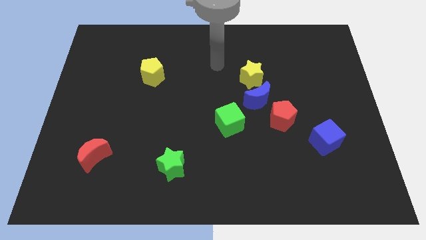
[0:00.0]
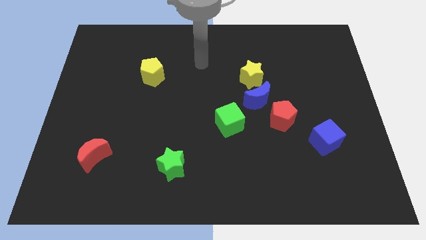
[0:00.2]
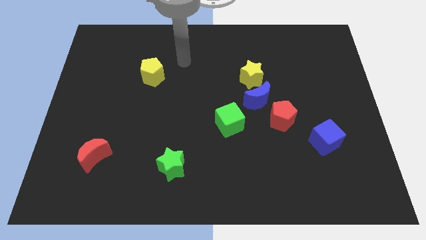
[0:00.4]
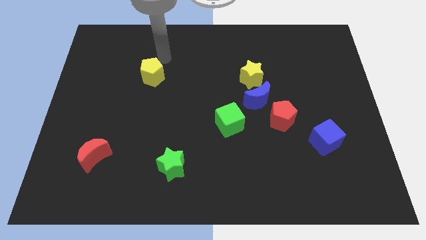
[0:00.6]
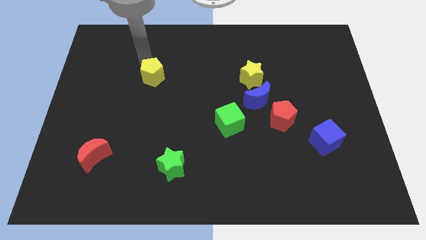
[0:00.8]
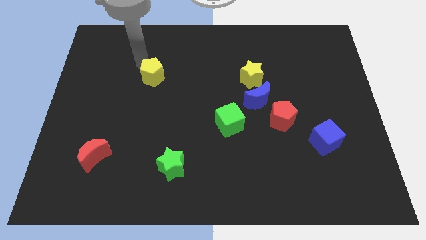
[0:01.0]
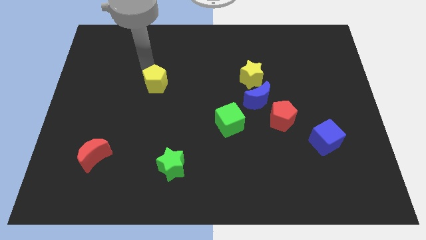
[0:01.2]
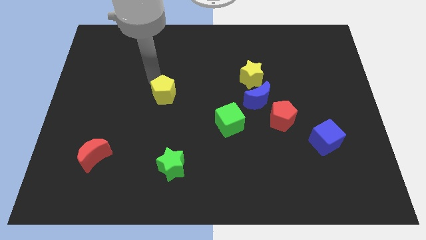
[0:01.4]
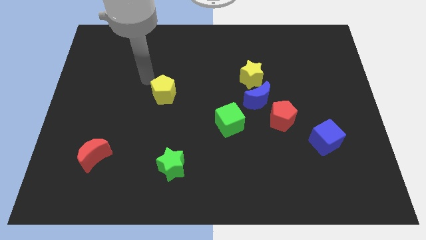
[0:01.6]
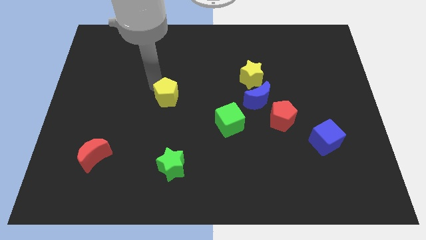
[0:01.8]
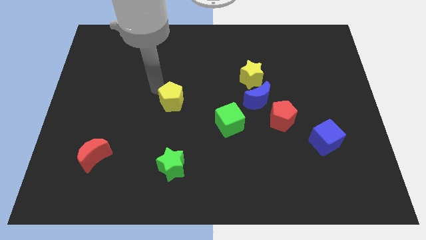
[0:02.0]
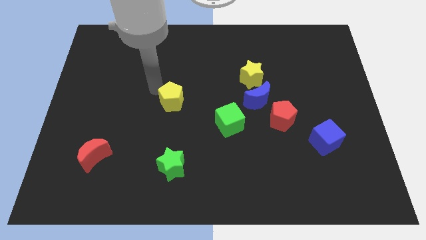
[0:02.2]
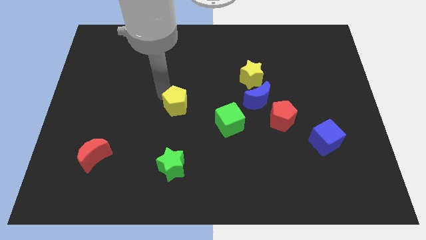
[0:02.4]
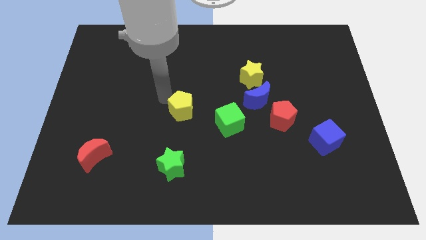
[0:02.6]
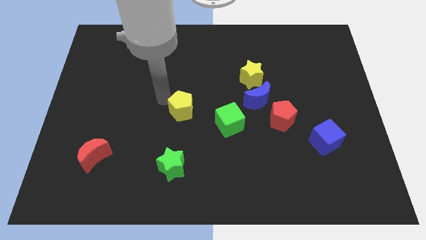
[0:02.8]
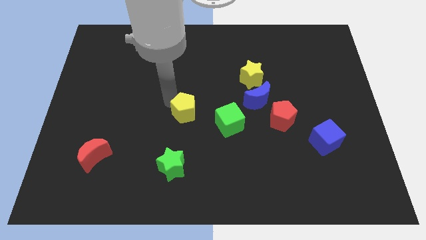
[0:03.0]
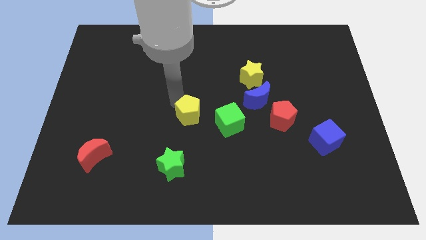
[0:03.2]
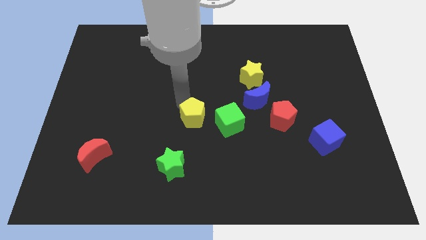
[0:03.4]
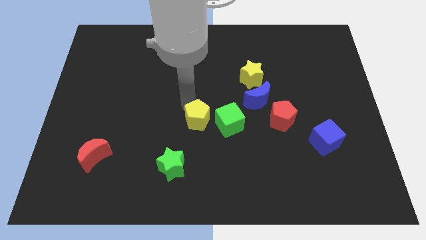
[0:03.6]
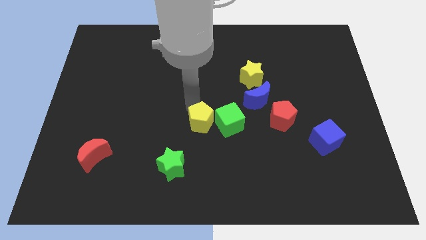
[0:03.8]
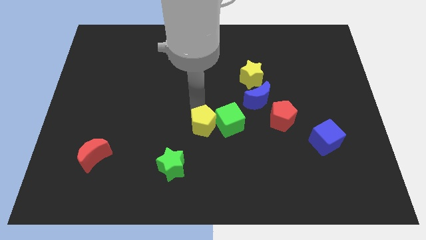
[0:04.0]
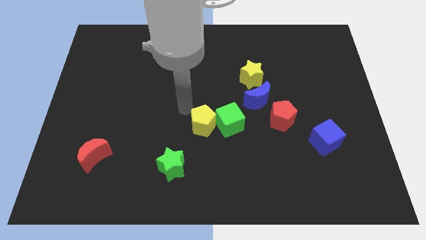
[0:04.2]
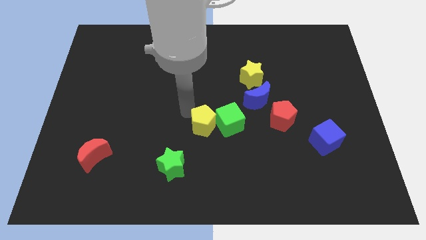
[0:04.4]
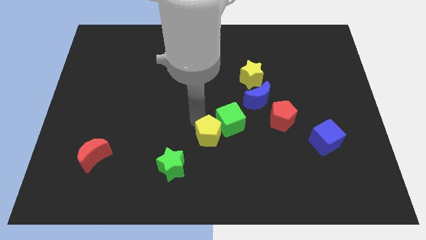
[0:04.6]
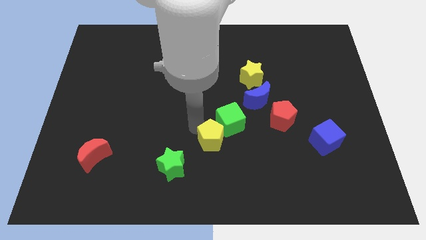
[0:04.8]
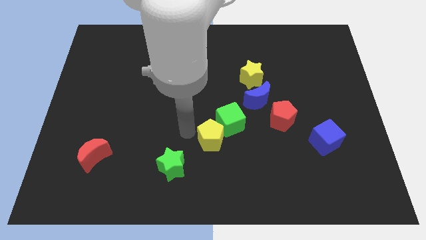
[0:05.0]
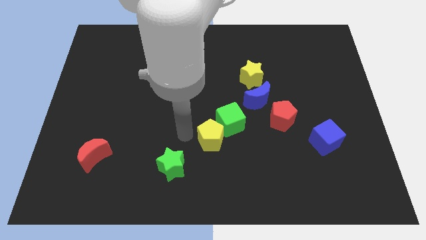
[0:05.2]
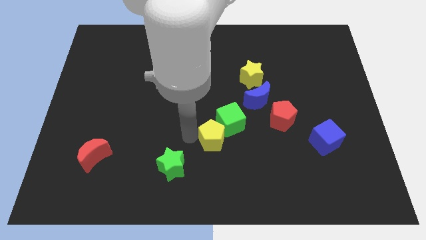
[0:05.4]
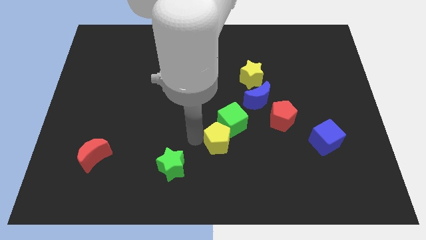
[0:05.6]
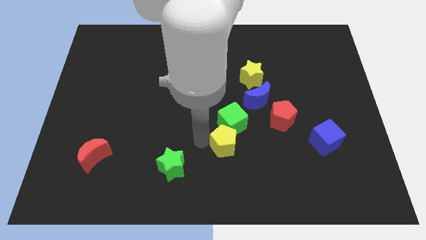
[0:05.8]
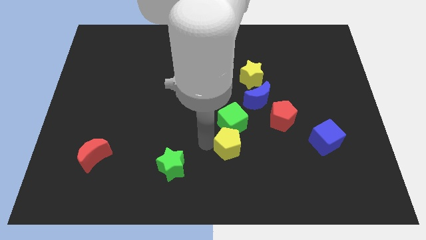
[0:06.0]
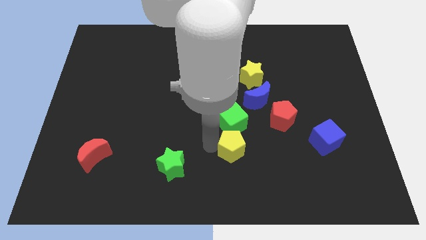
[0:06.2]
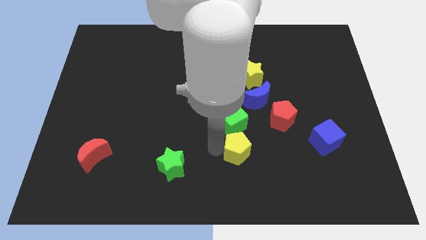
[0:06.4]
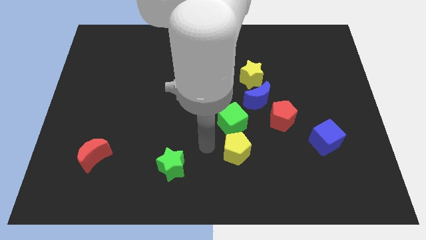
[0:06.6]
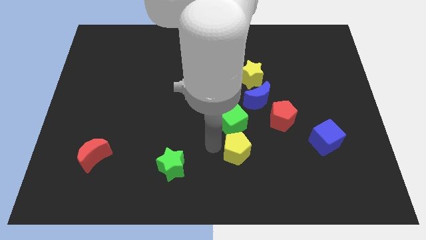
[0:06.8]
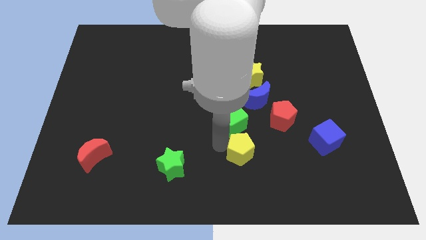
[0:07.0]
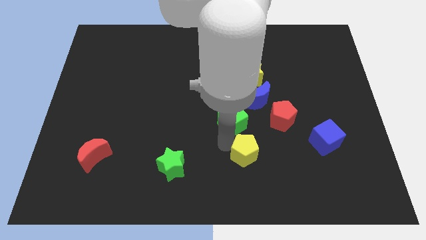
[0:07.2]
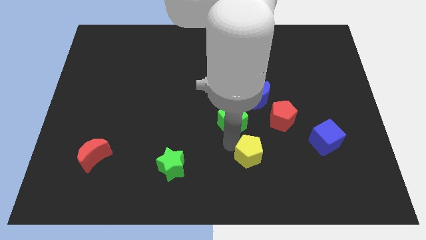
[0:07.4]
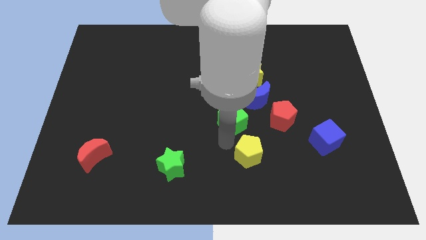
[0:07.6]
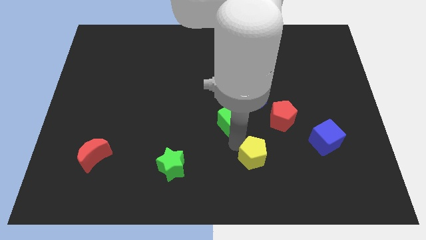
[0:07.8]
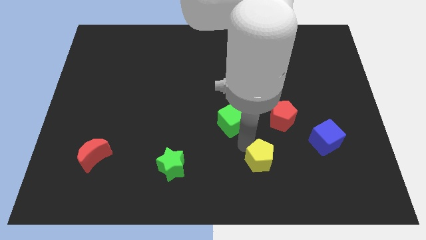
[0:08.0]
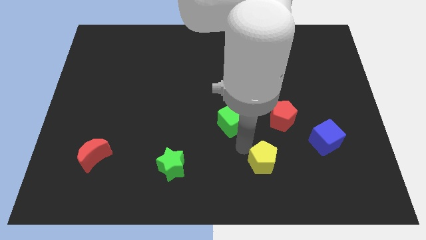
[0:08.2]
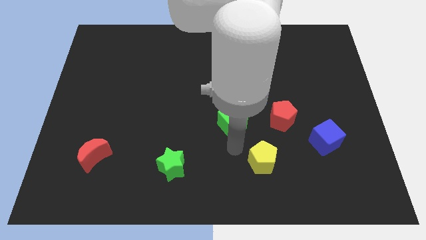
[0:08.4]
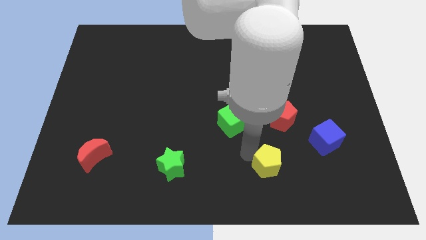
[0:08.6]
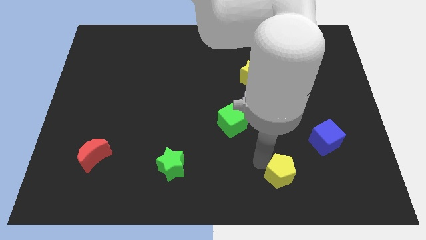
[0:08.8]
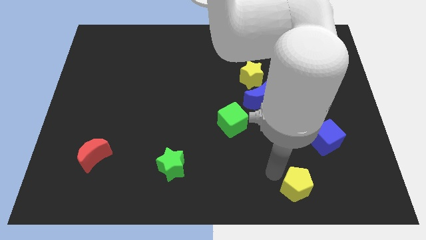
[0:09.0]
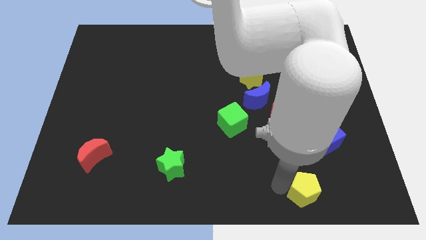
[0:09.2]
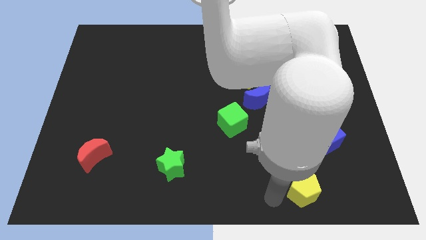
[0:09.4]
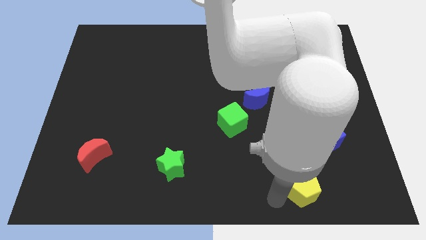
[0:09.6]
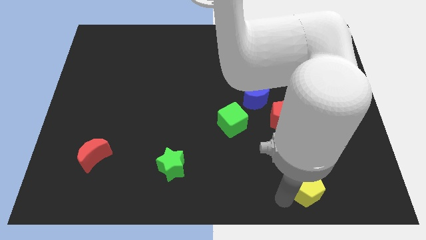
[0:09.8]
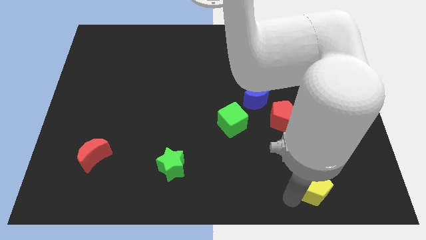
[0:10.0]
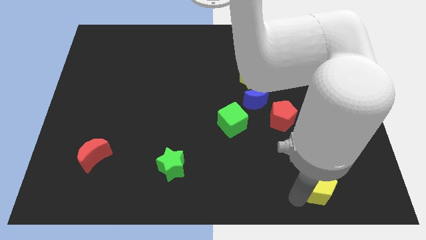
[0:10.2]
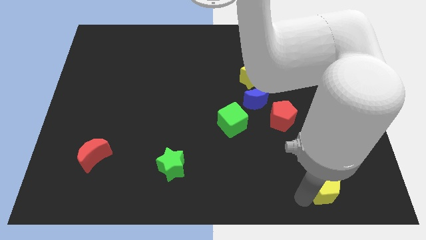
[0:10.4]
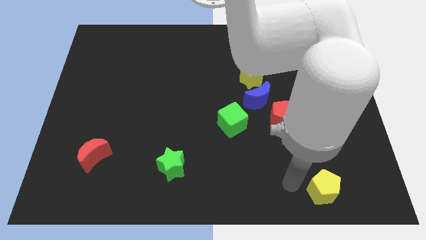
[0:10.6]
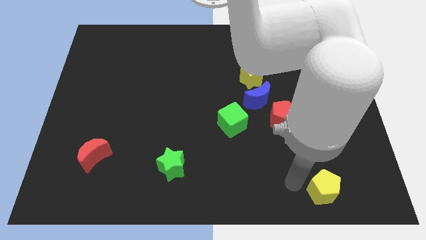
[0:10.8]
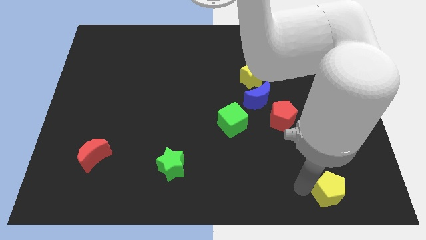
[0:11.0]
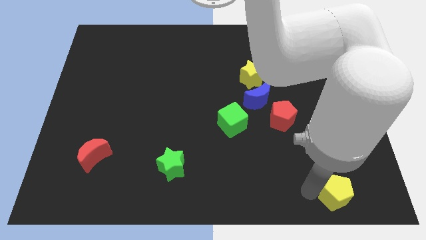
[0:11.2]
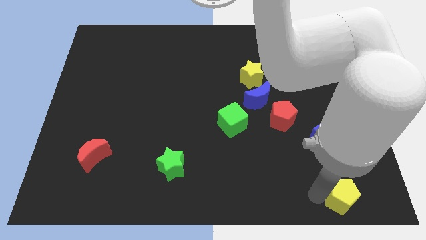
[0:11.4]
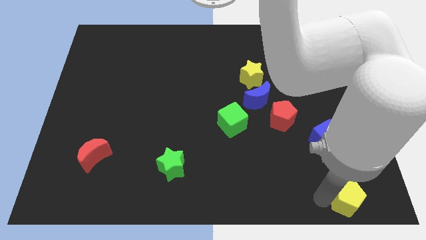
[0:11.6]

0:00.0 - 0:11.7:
slide the yellow pentagon to the lower right corner

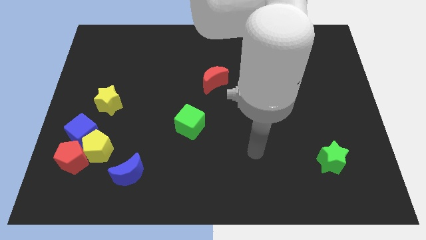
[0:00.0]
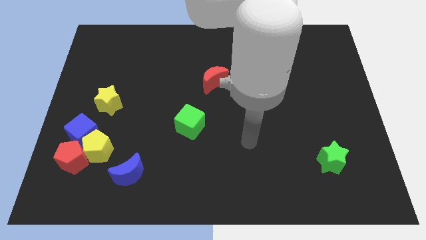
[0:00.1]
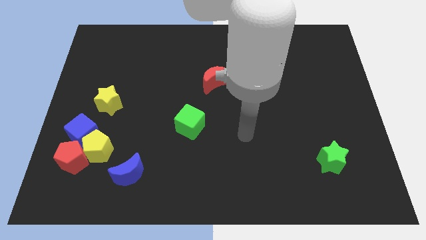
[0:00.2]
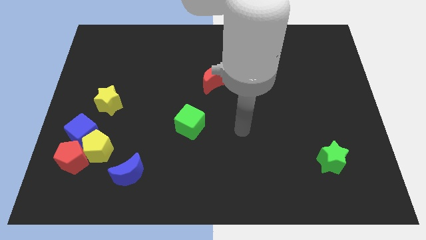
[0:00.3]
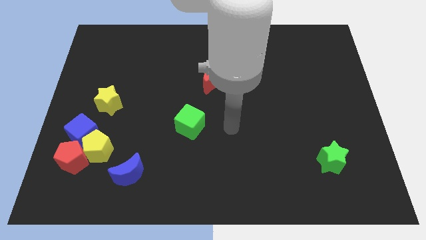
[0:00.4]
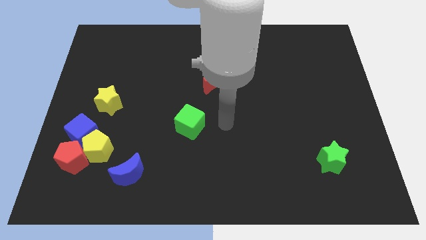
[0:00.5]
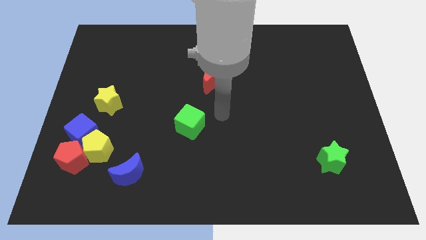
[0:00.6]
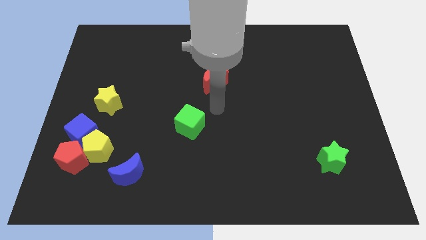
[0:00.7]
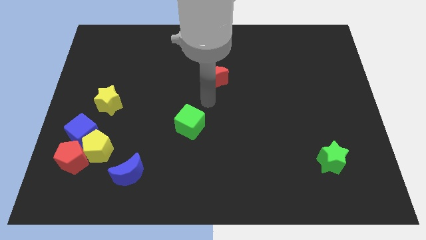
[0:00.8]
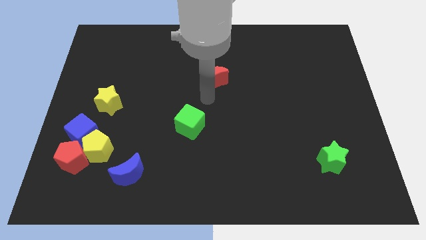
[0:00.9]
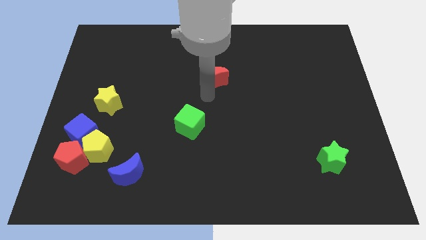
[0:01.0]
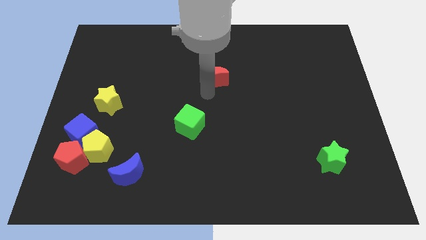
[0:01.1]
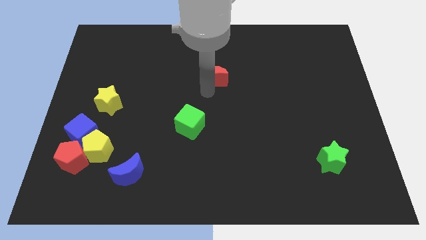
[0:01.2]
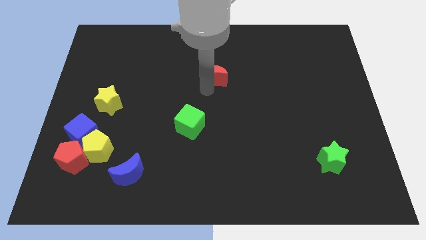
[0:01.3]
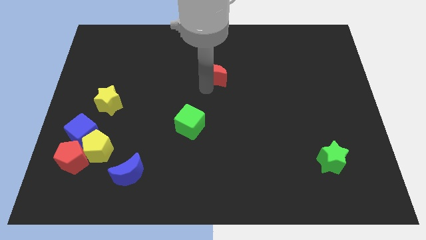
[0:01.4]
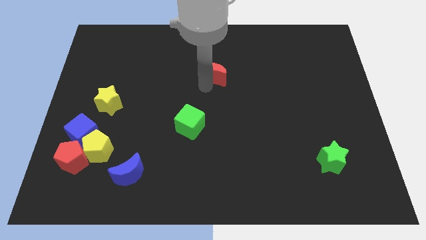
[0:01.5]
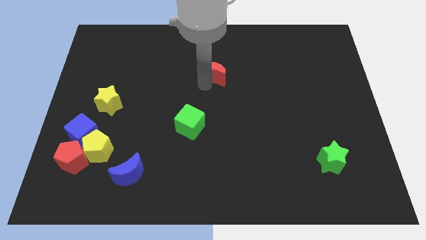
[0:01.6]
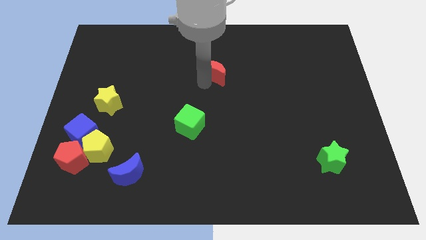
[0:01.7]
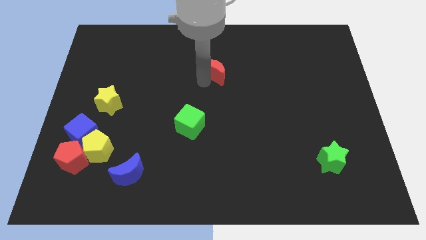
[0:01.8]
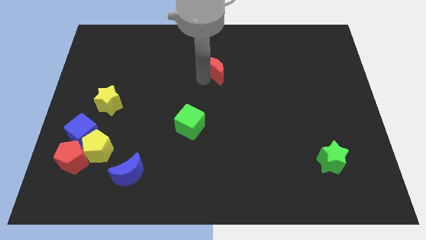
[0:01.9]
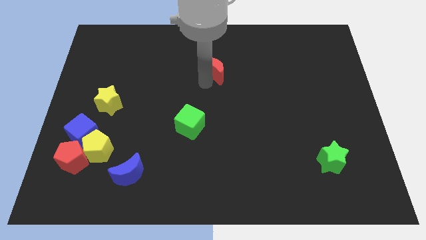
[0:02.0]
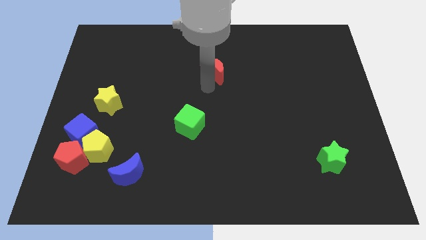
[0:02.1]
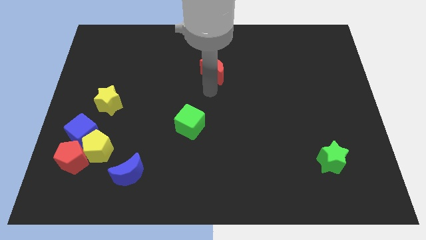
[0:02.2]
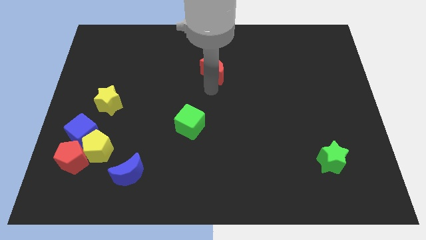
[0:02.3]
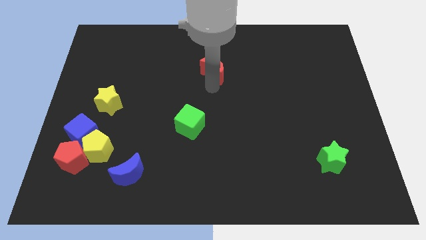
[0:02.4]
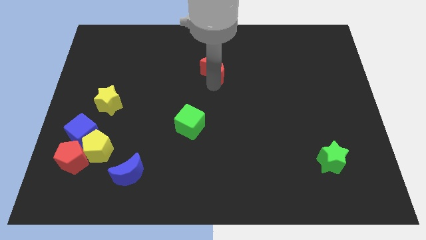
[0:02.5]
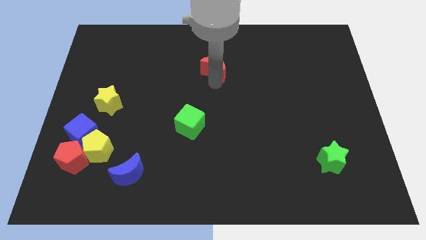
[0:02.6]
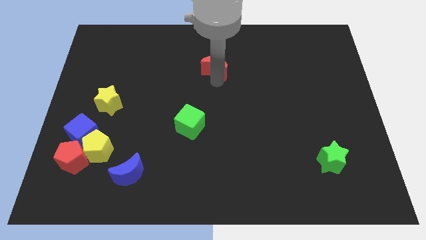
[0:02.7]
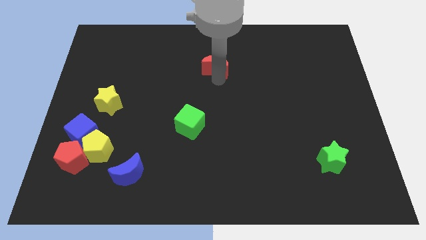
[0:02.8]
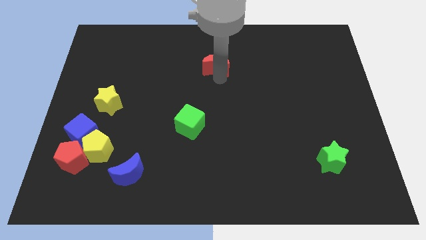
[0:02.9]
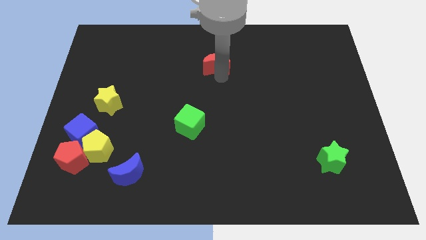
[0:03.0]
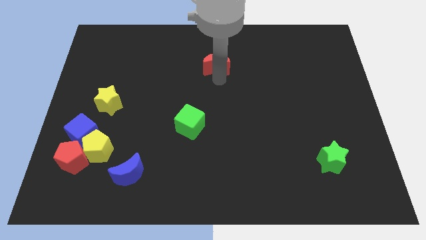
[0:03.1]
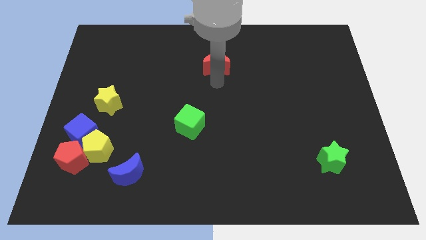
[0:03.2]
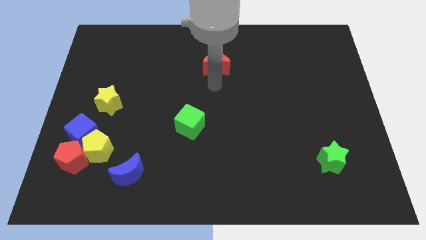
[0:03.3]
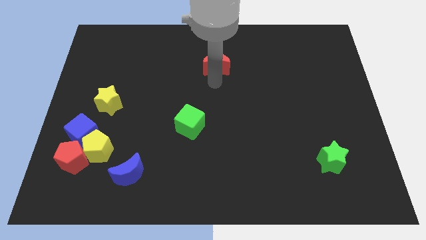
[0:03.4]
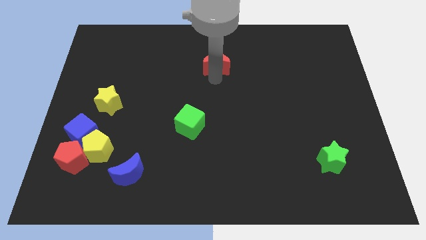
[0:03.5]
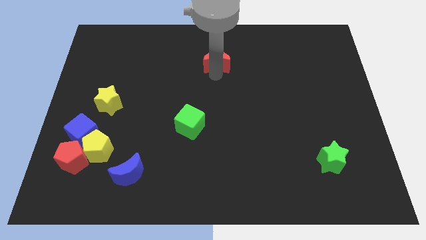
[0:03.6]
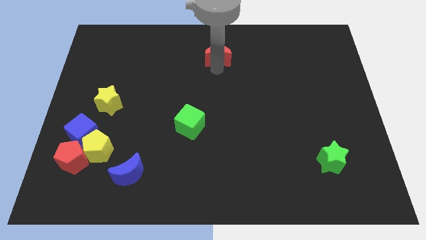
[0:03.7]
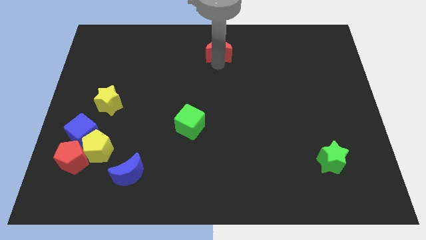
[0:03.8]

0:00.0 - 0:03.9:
move the red moon to the top side
